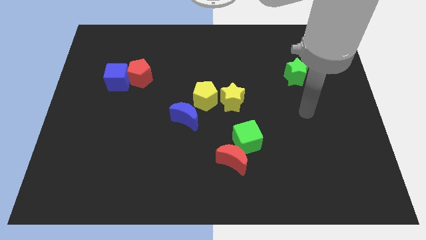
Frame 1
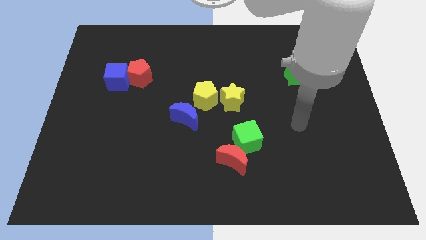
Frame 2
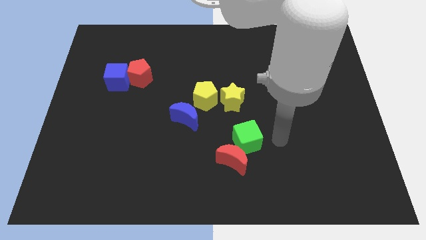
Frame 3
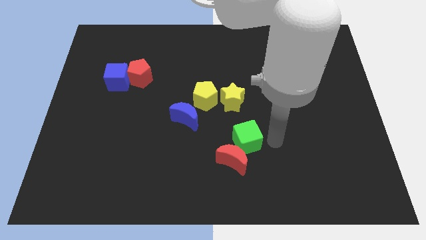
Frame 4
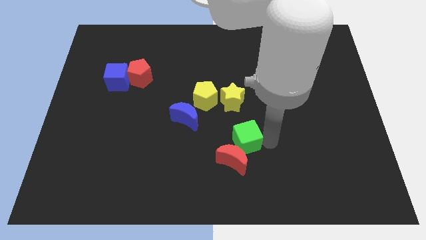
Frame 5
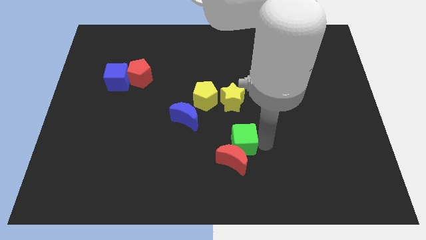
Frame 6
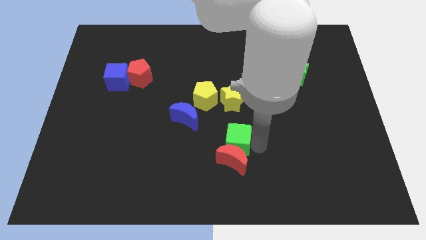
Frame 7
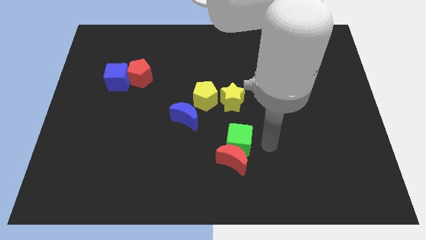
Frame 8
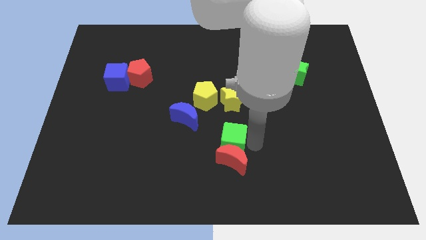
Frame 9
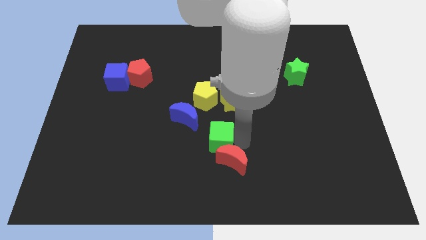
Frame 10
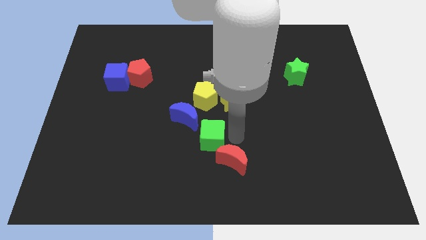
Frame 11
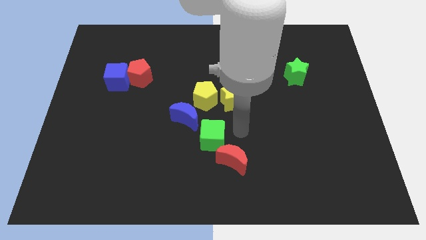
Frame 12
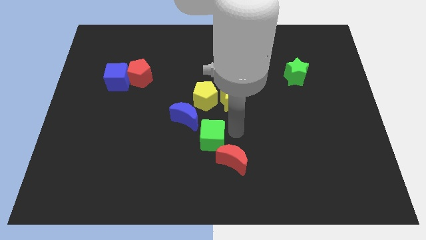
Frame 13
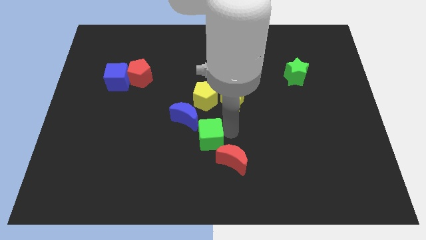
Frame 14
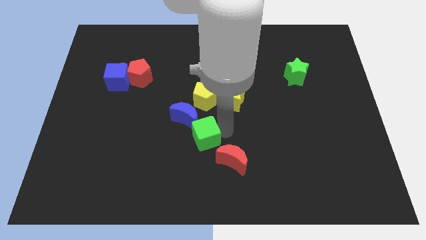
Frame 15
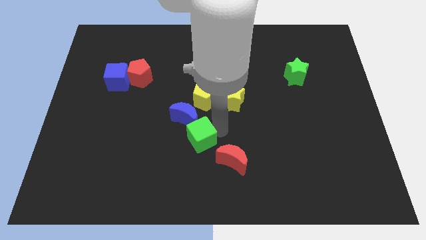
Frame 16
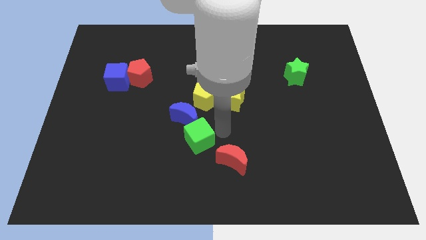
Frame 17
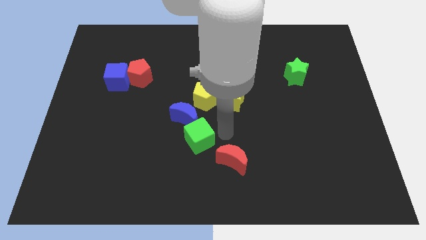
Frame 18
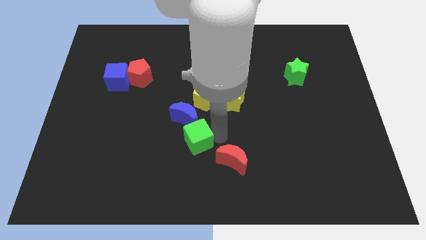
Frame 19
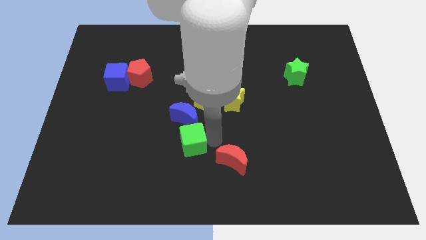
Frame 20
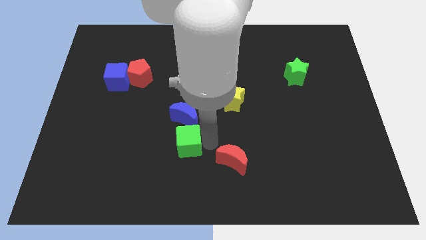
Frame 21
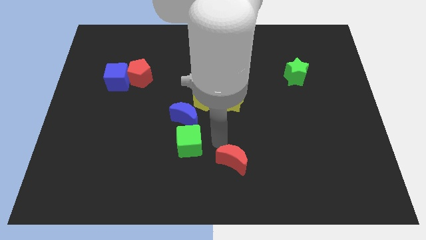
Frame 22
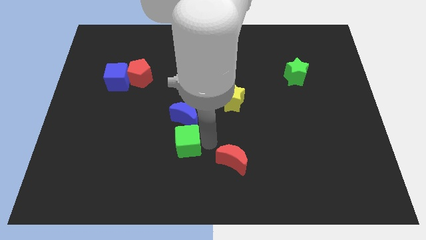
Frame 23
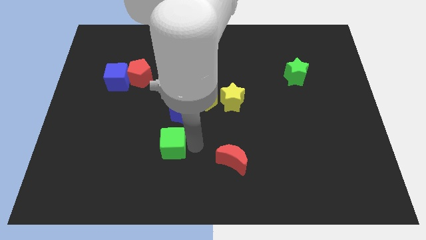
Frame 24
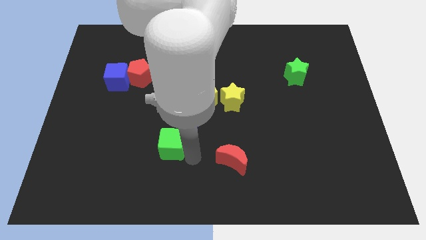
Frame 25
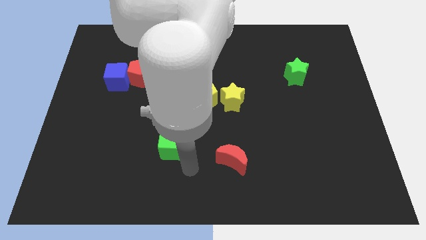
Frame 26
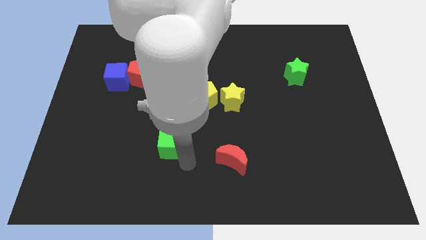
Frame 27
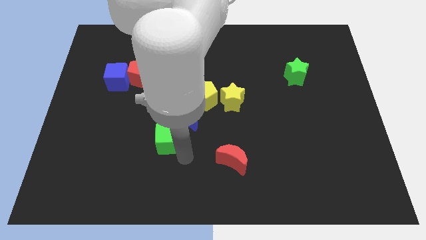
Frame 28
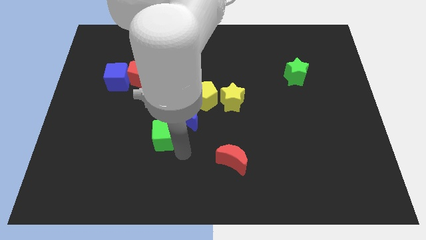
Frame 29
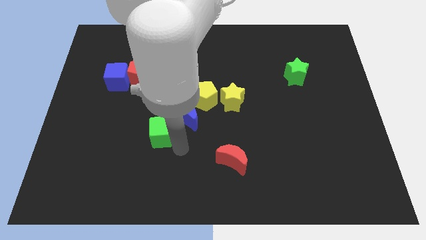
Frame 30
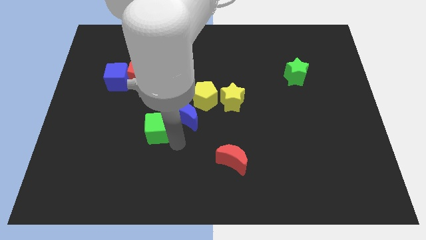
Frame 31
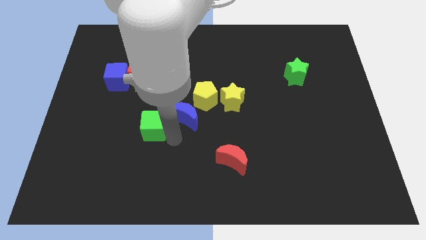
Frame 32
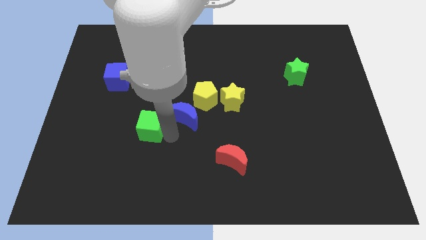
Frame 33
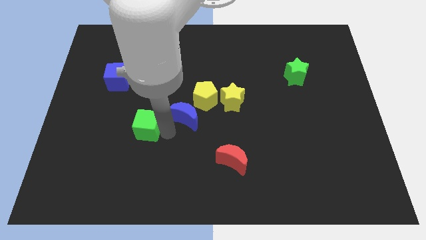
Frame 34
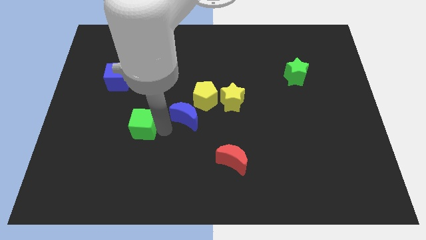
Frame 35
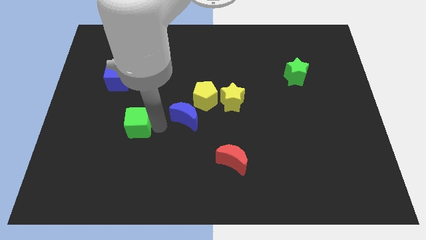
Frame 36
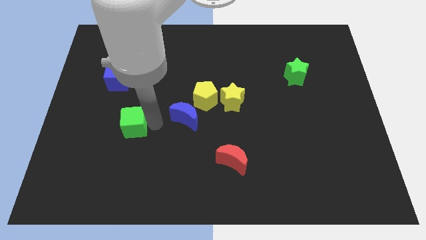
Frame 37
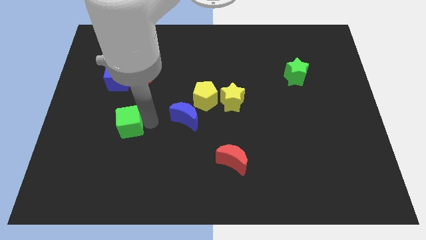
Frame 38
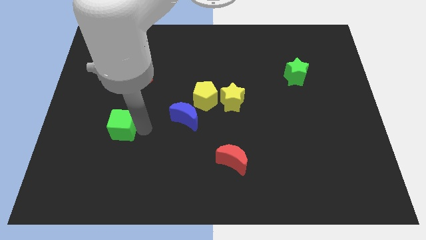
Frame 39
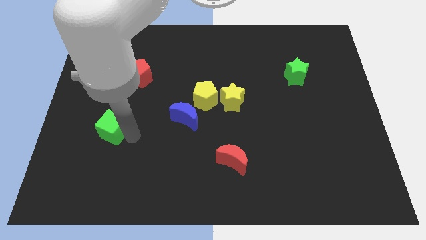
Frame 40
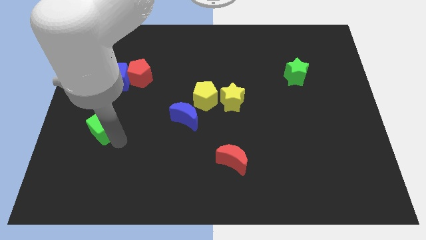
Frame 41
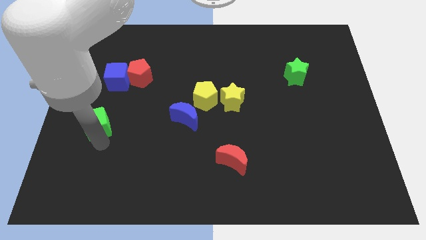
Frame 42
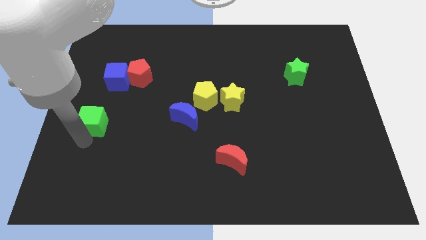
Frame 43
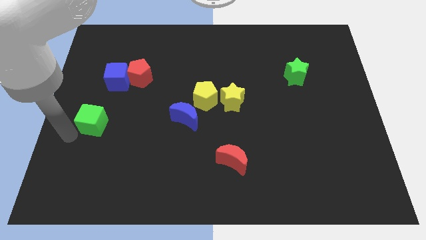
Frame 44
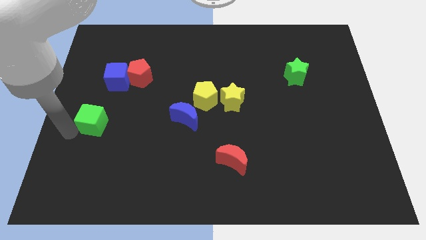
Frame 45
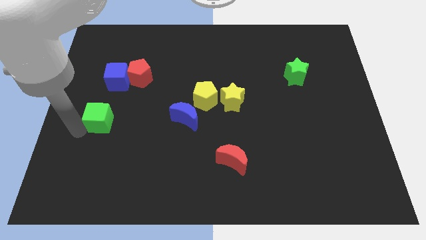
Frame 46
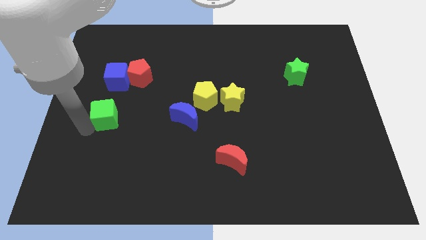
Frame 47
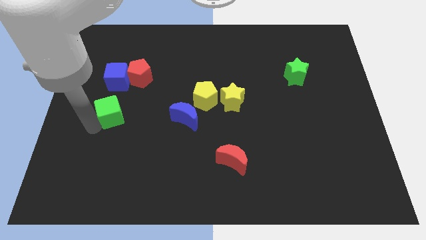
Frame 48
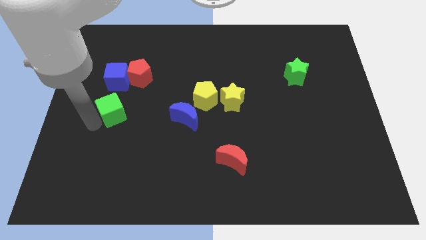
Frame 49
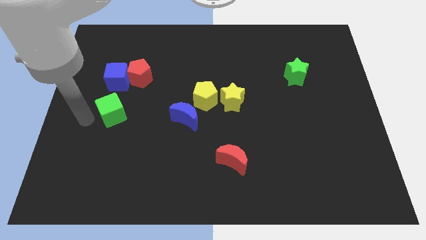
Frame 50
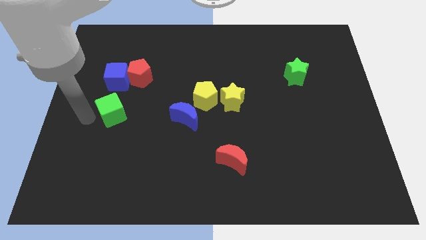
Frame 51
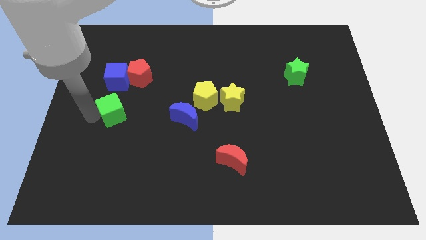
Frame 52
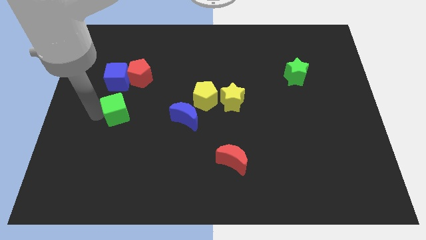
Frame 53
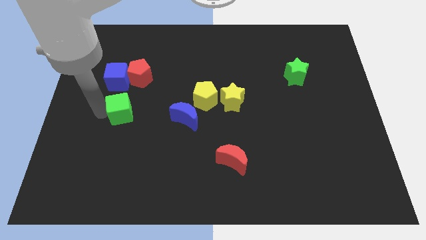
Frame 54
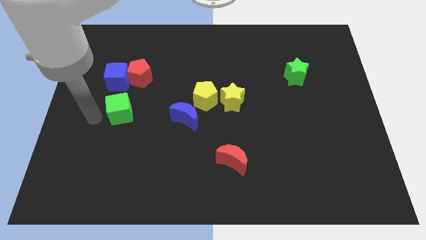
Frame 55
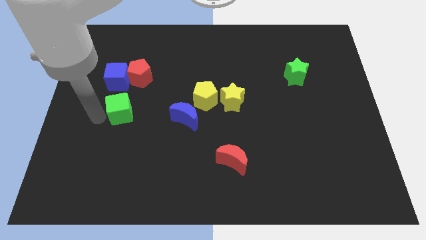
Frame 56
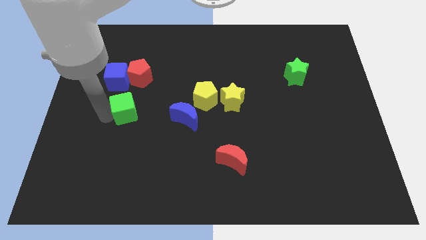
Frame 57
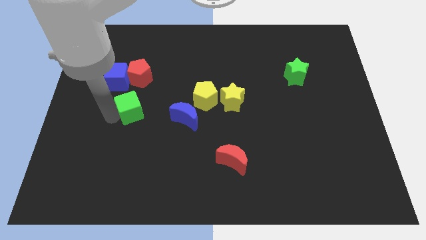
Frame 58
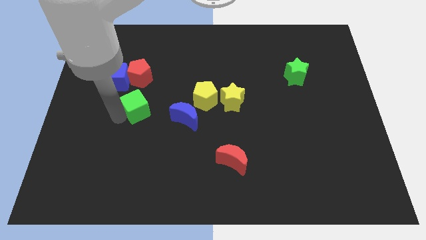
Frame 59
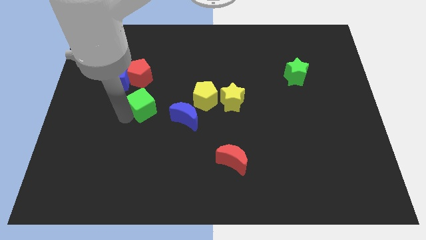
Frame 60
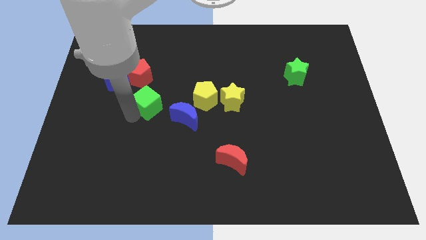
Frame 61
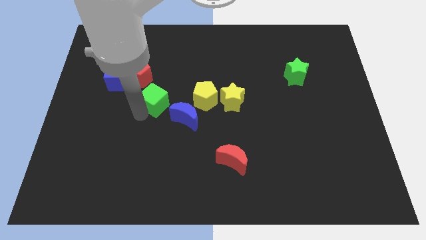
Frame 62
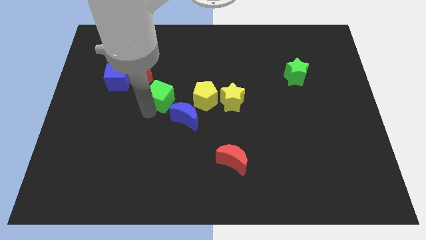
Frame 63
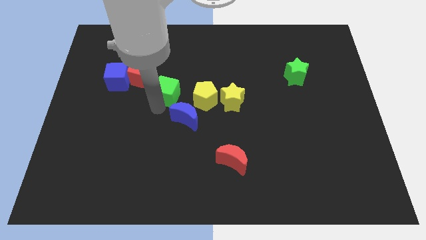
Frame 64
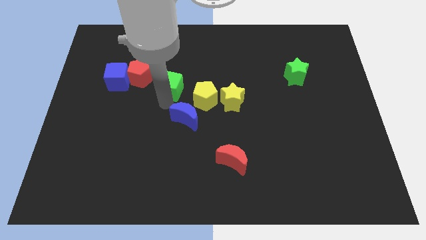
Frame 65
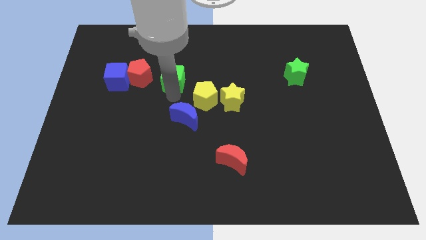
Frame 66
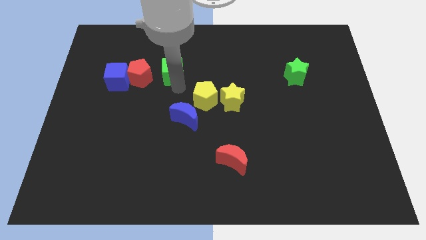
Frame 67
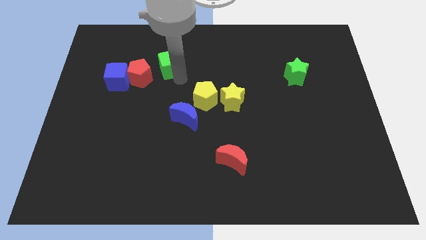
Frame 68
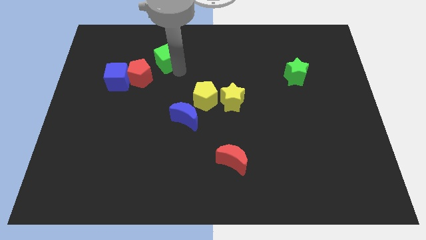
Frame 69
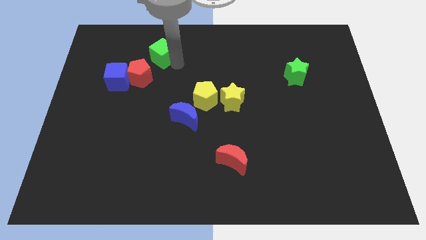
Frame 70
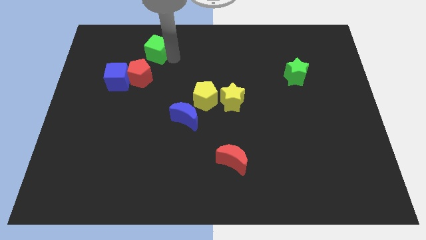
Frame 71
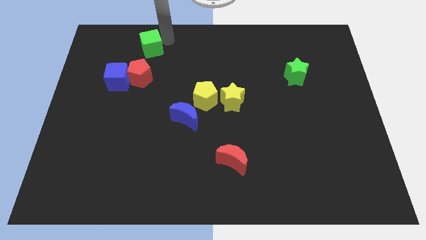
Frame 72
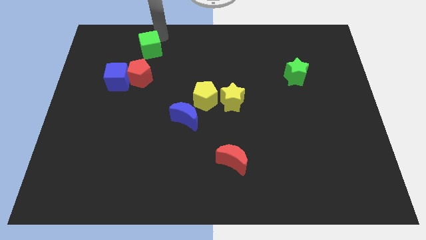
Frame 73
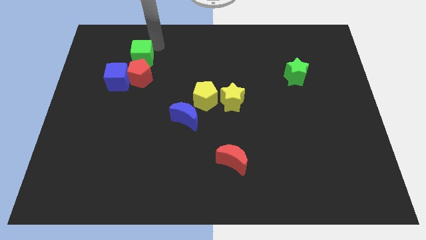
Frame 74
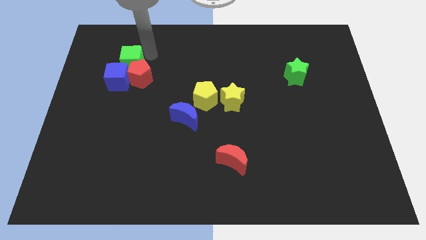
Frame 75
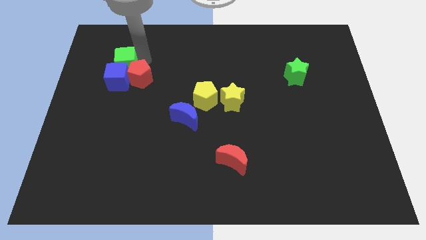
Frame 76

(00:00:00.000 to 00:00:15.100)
push the green cube to the left of the red pentagon

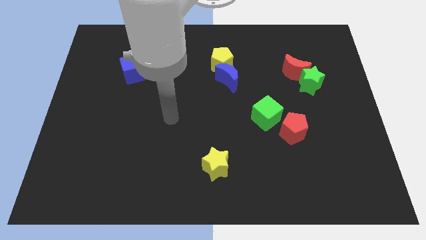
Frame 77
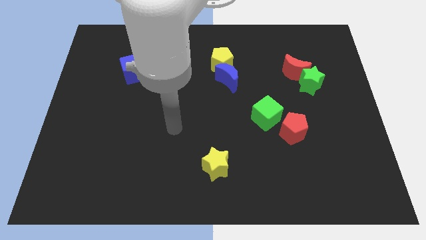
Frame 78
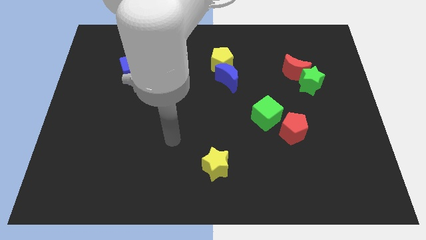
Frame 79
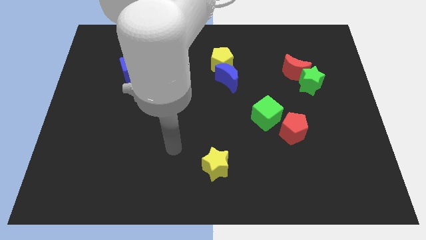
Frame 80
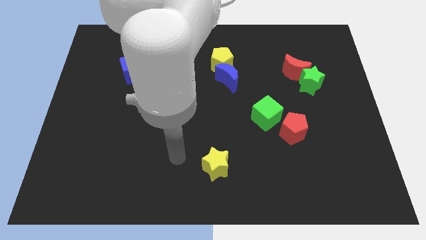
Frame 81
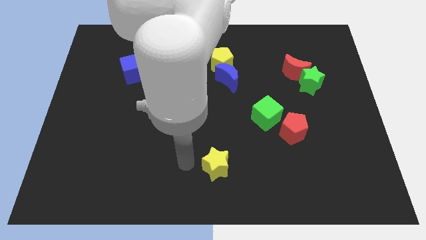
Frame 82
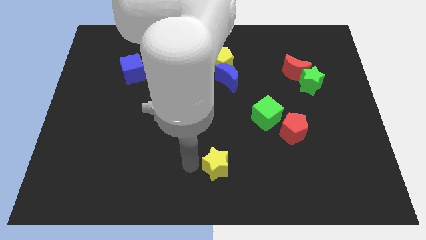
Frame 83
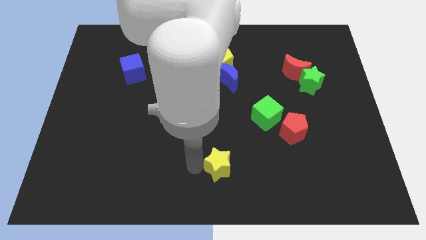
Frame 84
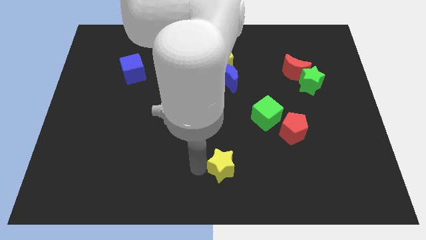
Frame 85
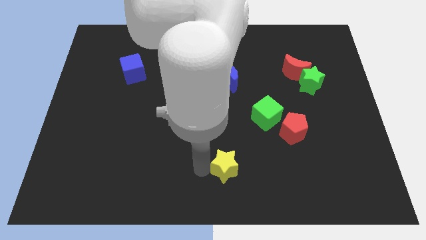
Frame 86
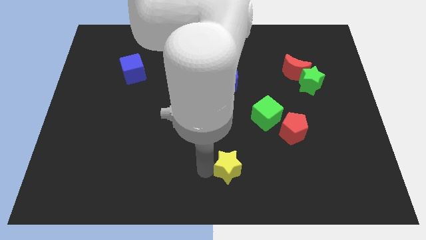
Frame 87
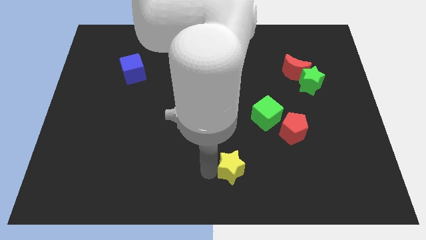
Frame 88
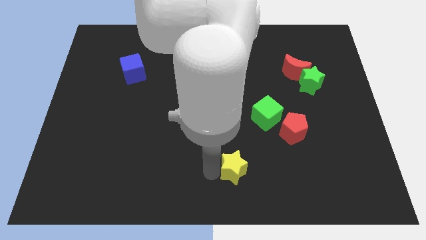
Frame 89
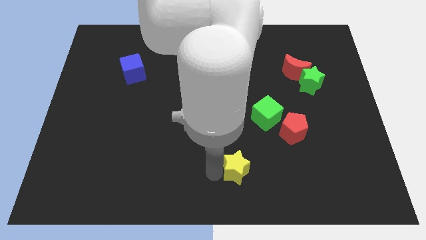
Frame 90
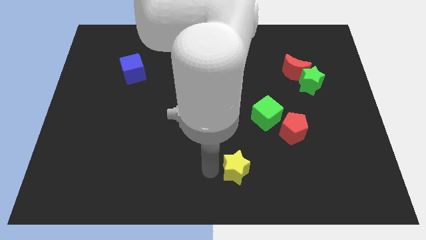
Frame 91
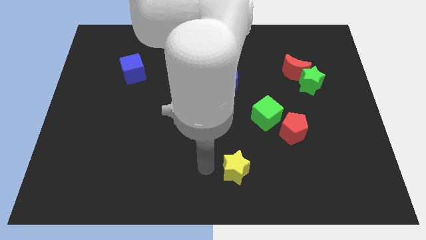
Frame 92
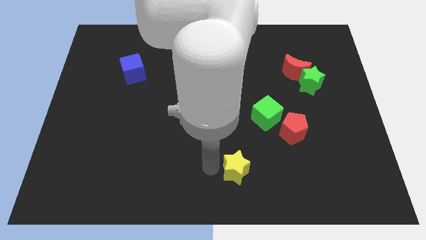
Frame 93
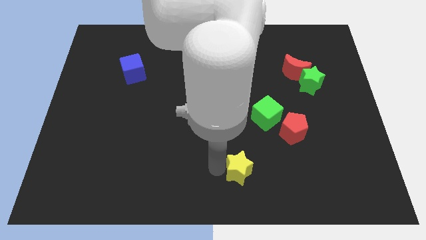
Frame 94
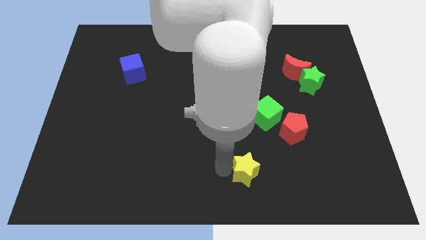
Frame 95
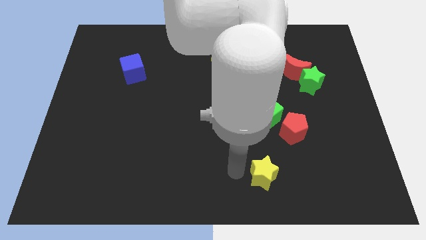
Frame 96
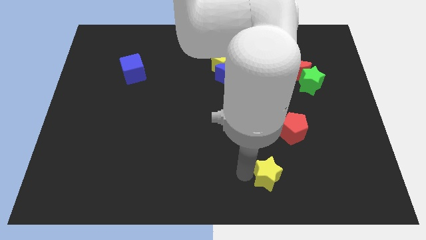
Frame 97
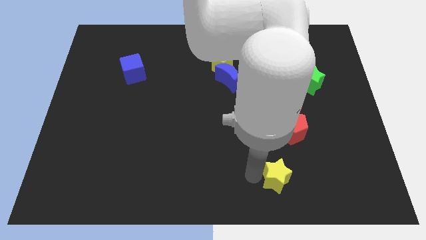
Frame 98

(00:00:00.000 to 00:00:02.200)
slide the yellow star below the red pentagon
